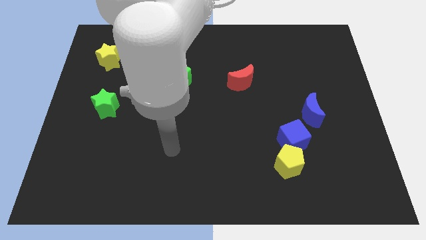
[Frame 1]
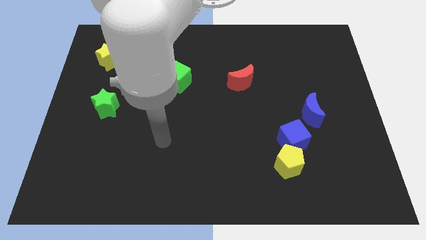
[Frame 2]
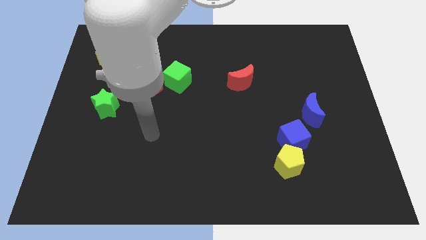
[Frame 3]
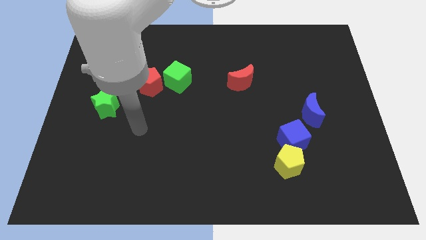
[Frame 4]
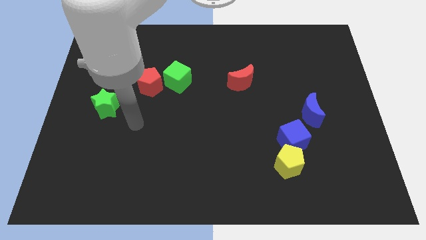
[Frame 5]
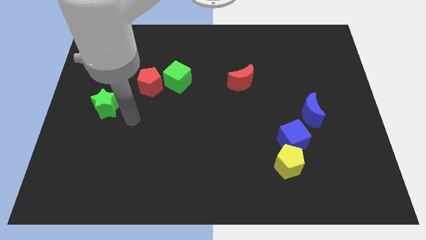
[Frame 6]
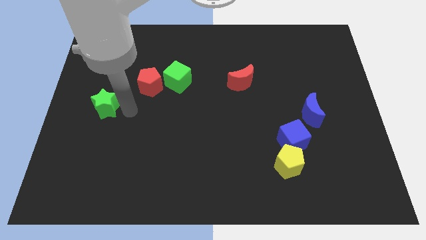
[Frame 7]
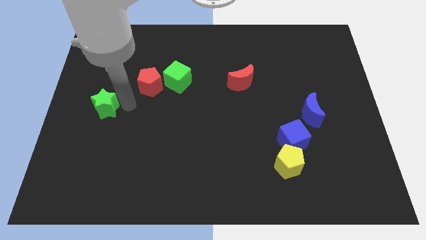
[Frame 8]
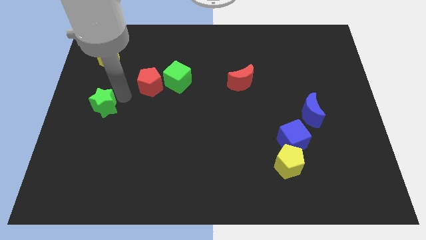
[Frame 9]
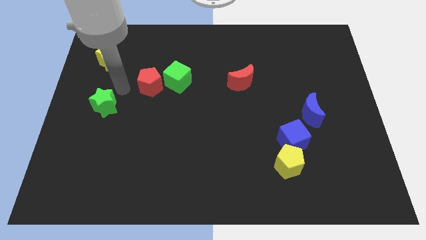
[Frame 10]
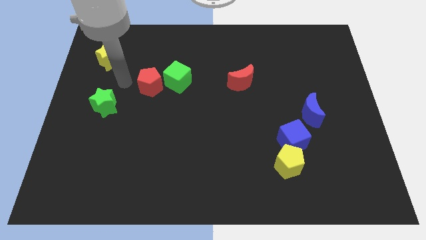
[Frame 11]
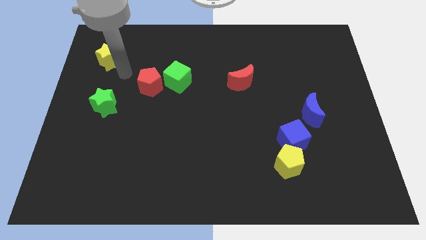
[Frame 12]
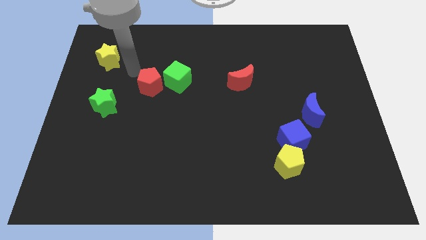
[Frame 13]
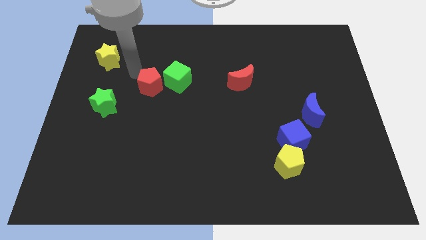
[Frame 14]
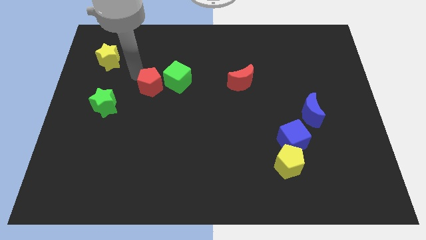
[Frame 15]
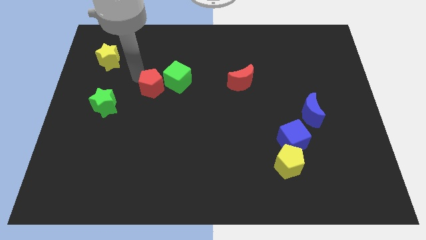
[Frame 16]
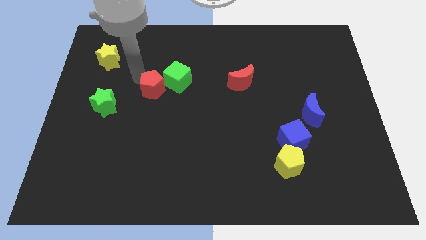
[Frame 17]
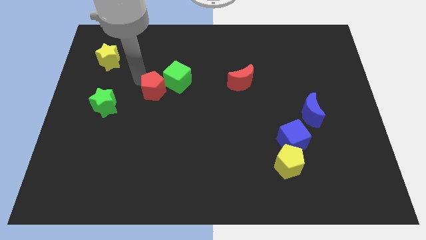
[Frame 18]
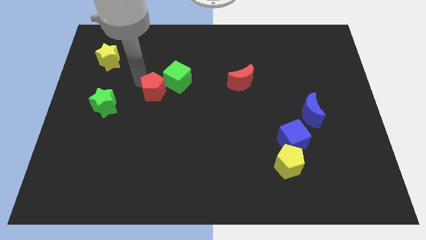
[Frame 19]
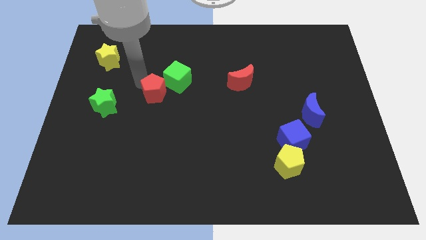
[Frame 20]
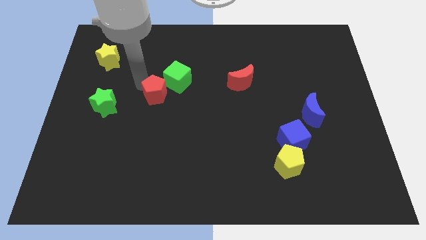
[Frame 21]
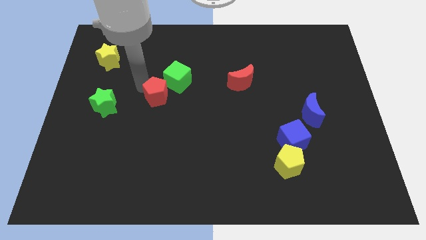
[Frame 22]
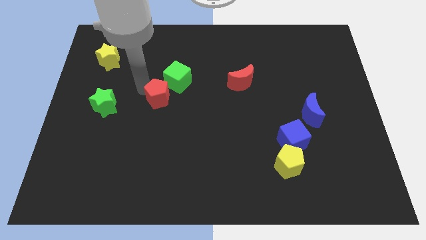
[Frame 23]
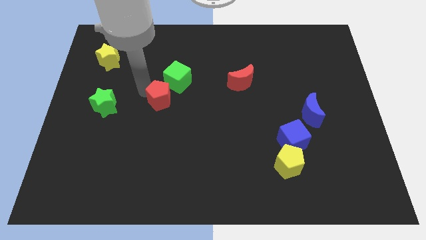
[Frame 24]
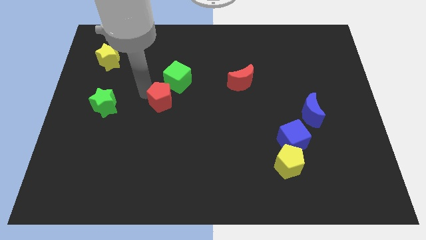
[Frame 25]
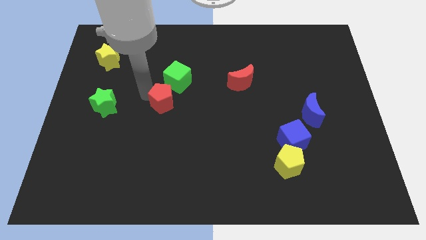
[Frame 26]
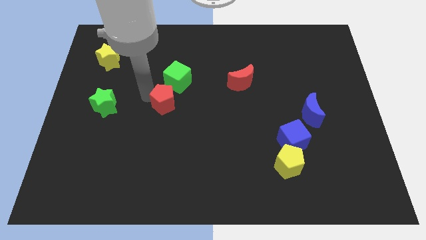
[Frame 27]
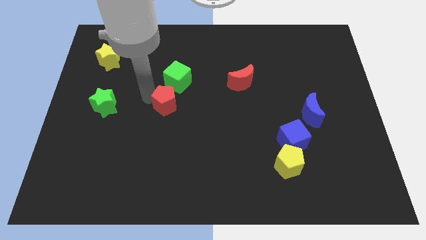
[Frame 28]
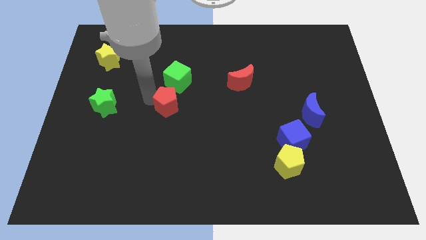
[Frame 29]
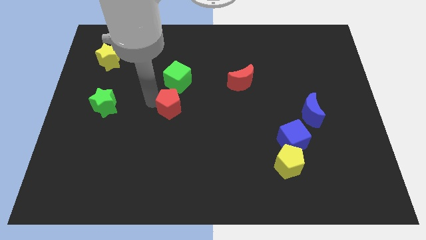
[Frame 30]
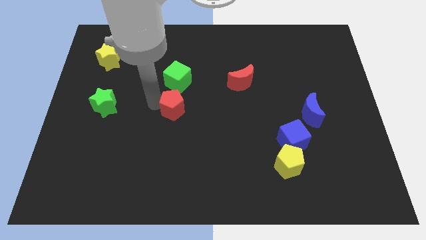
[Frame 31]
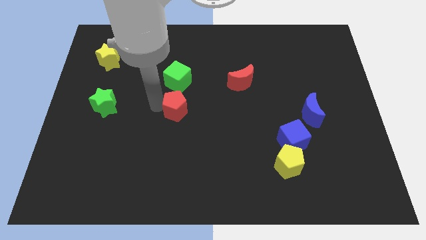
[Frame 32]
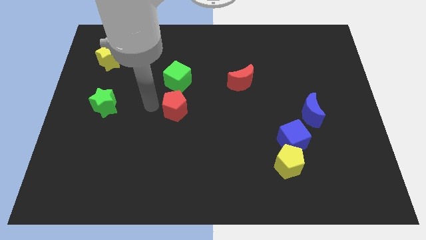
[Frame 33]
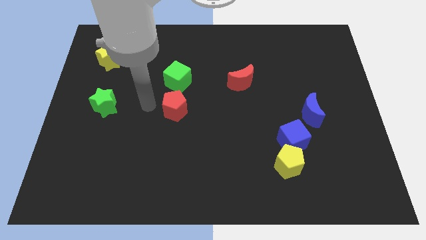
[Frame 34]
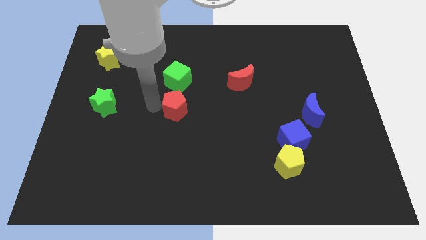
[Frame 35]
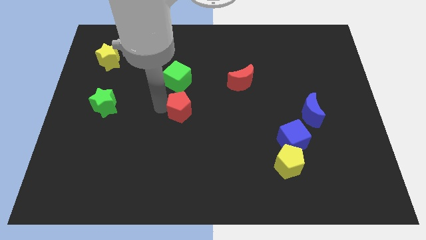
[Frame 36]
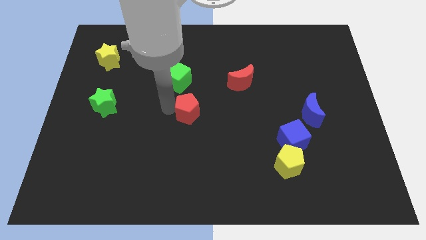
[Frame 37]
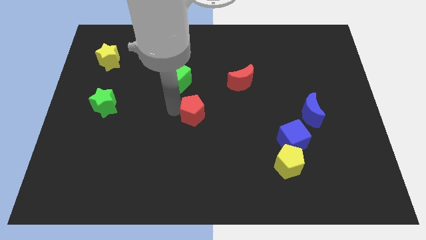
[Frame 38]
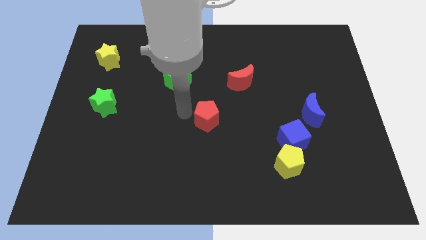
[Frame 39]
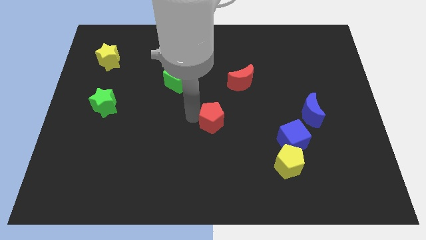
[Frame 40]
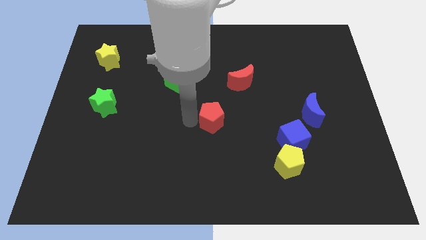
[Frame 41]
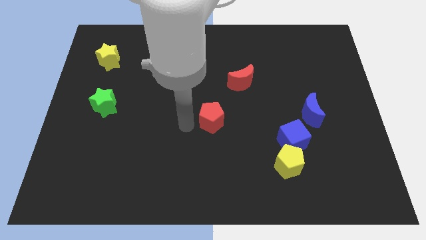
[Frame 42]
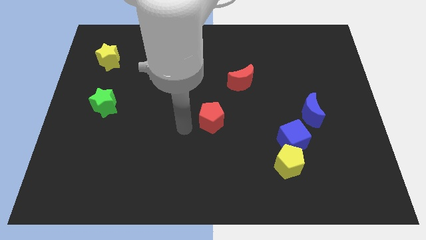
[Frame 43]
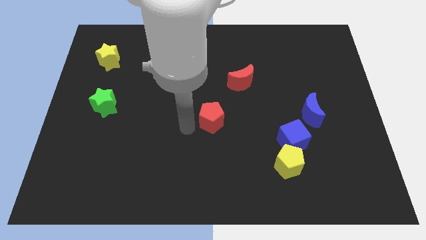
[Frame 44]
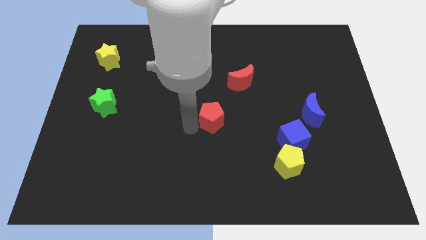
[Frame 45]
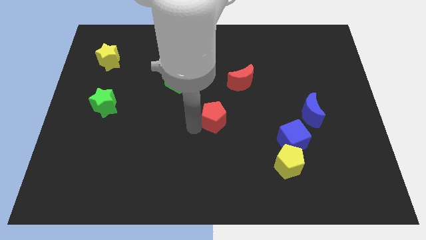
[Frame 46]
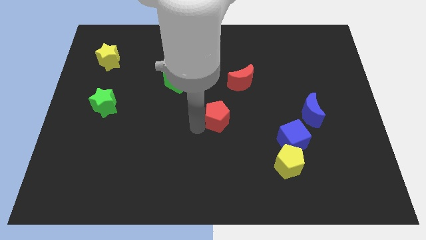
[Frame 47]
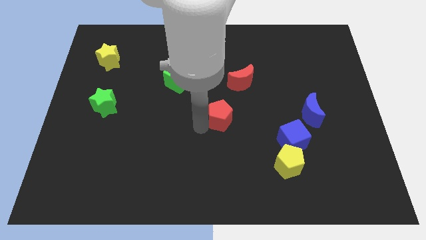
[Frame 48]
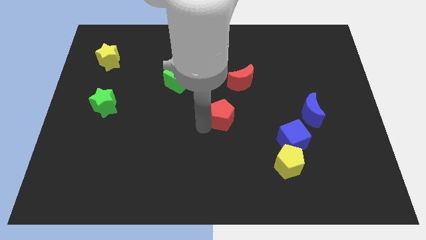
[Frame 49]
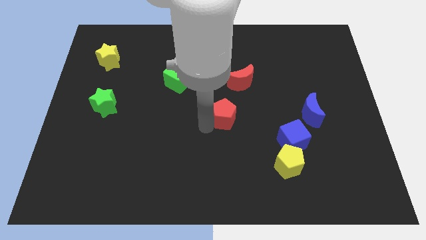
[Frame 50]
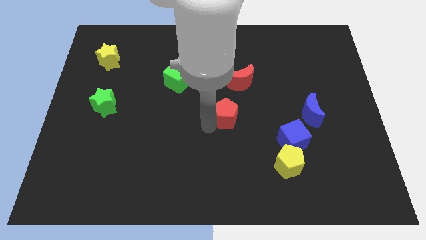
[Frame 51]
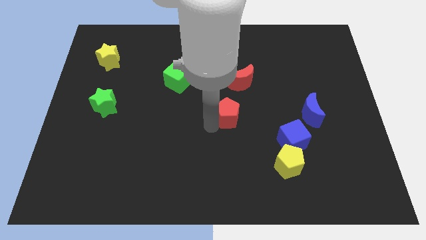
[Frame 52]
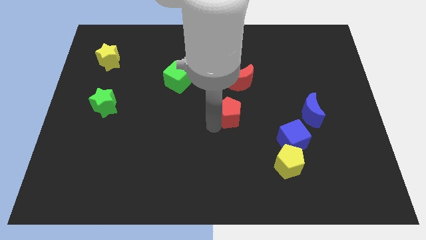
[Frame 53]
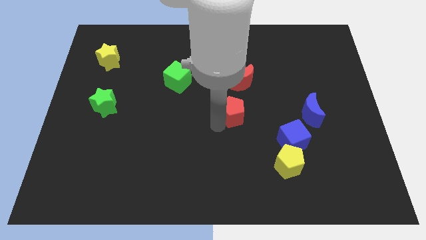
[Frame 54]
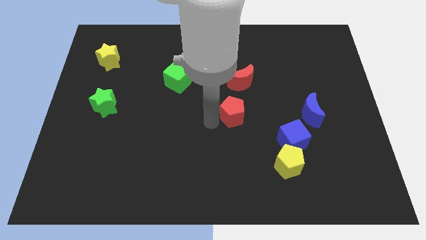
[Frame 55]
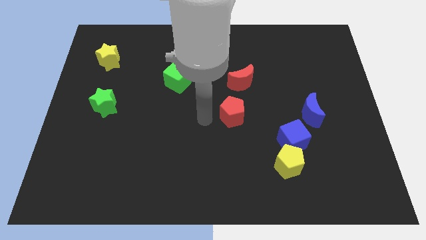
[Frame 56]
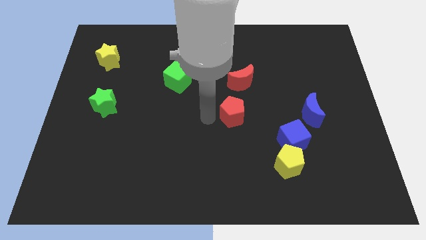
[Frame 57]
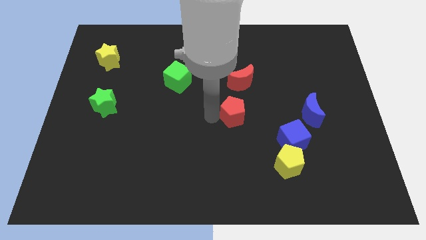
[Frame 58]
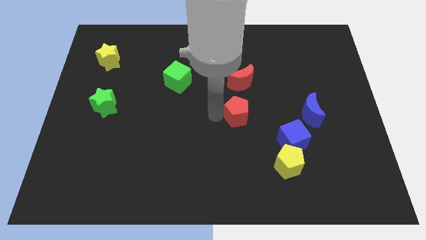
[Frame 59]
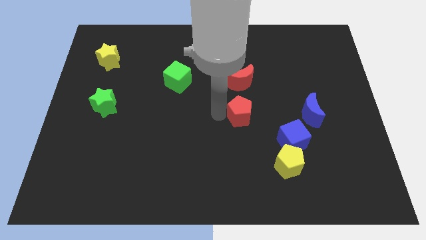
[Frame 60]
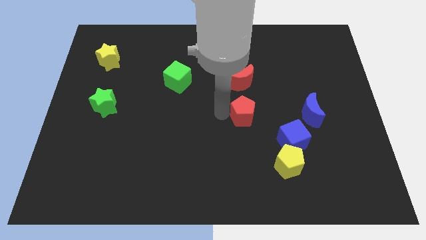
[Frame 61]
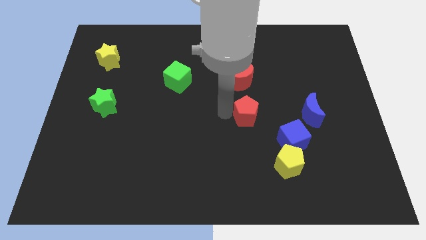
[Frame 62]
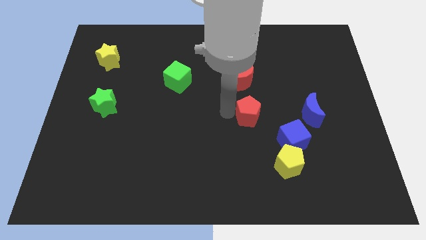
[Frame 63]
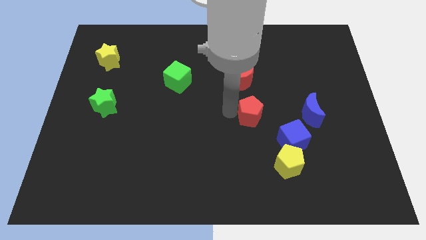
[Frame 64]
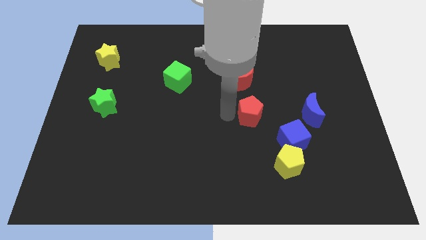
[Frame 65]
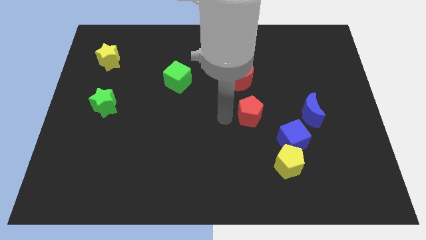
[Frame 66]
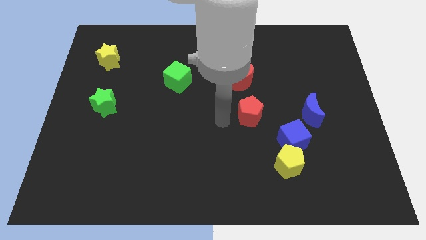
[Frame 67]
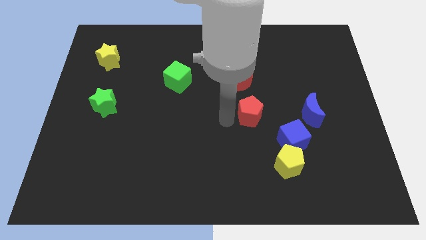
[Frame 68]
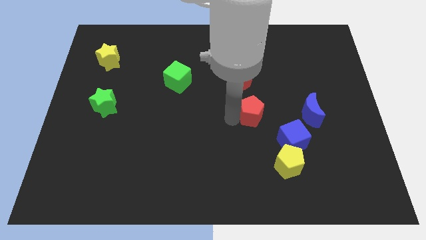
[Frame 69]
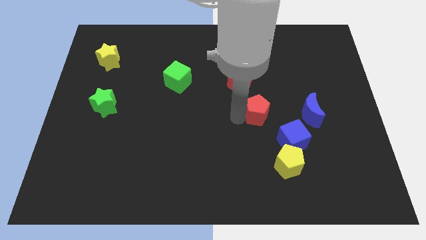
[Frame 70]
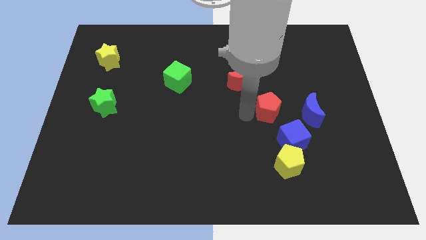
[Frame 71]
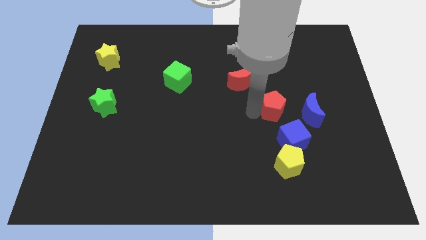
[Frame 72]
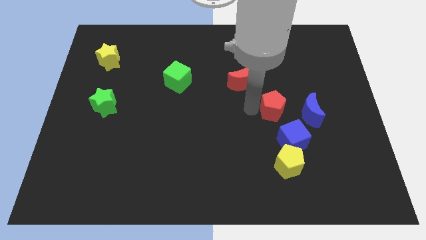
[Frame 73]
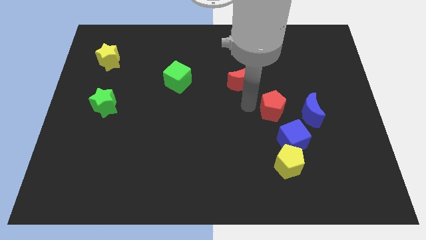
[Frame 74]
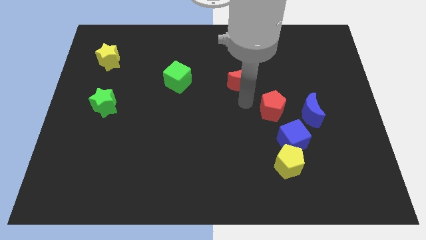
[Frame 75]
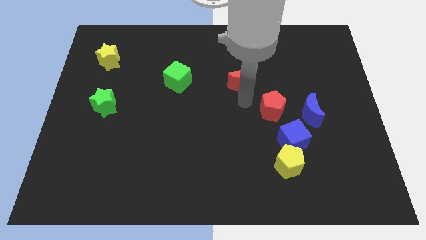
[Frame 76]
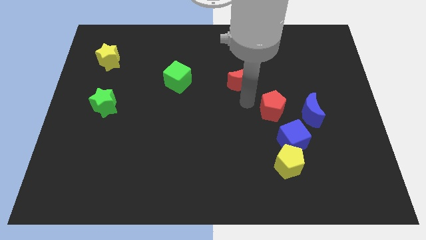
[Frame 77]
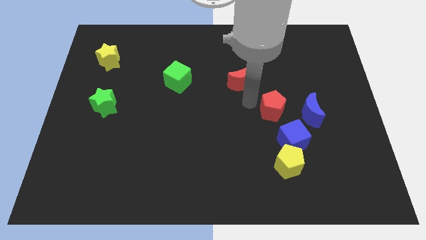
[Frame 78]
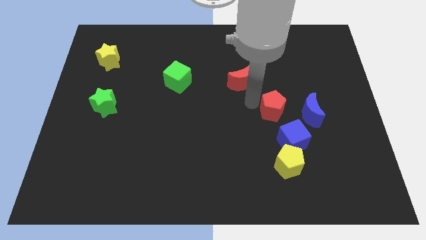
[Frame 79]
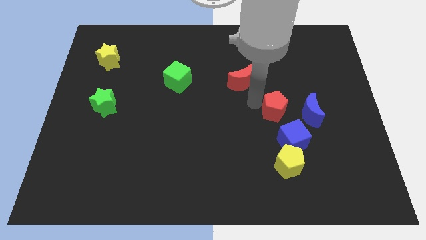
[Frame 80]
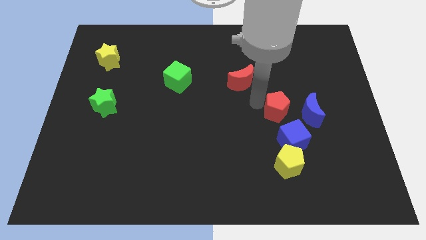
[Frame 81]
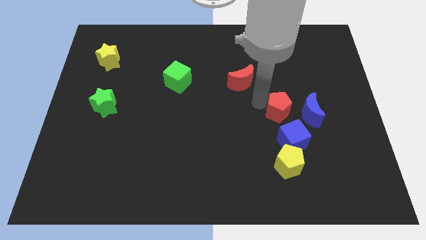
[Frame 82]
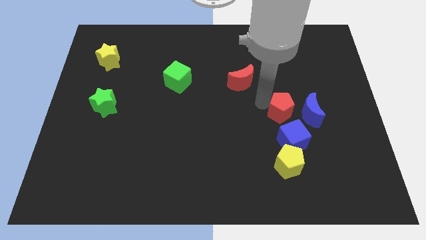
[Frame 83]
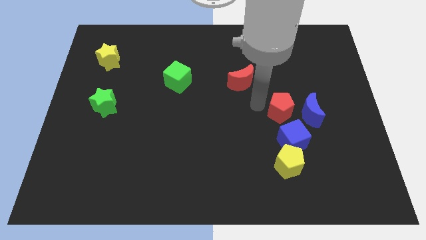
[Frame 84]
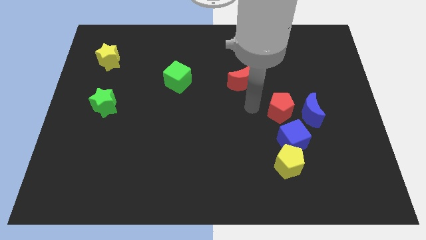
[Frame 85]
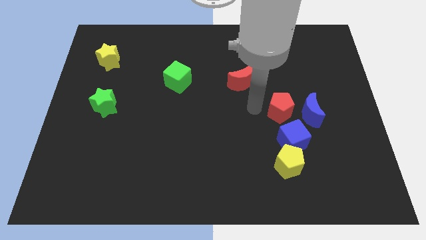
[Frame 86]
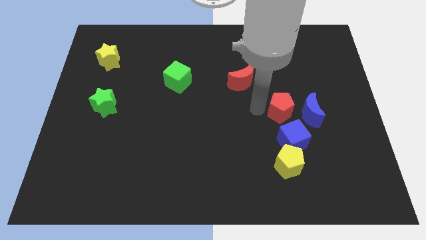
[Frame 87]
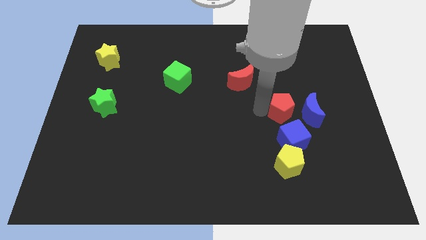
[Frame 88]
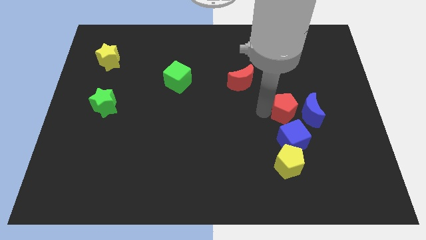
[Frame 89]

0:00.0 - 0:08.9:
push the red pentagon towards the blue moon
